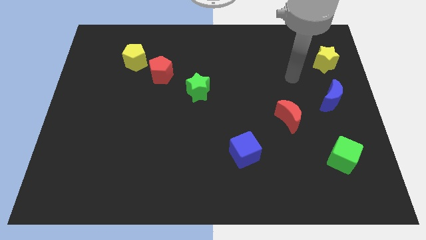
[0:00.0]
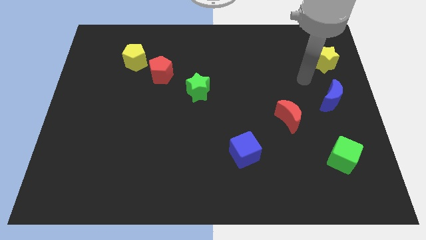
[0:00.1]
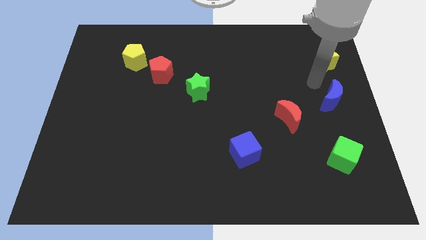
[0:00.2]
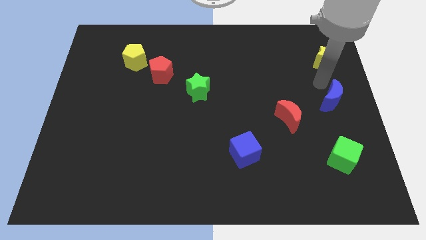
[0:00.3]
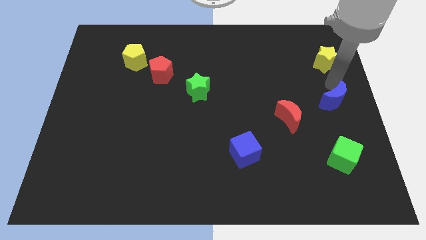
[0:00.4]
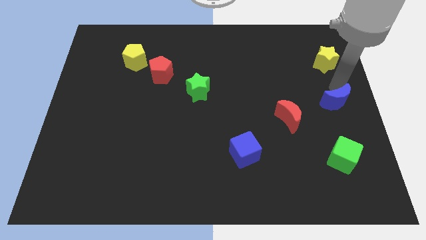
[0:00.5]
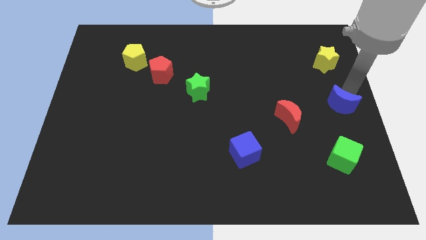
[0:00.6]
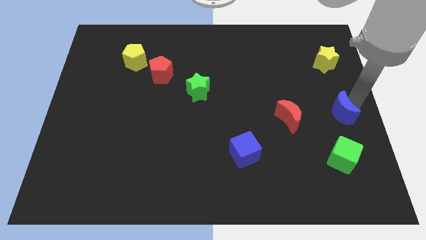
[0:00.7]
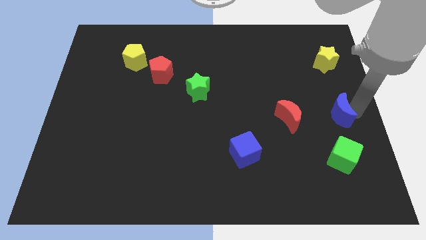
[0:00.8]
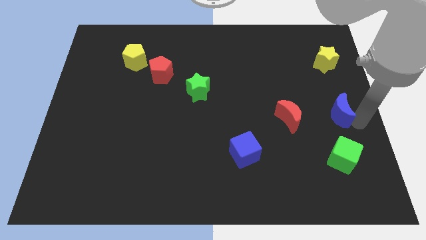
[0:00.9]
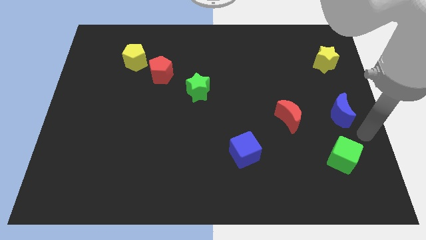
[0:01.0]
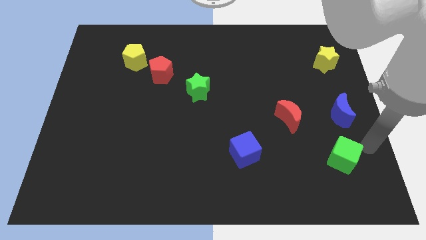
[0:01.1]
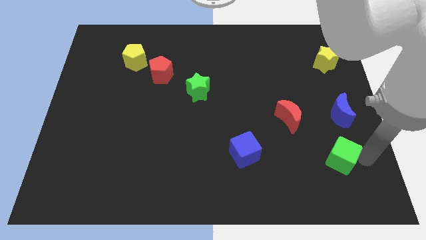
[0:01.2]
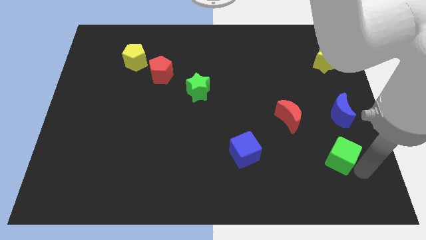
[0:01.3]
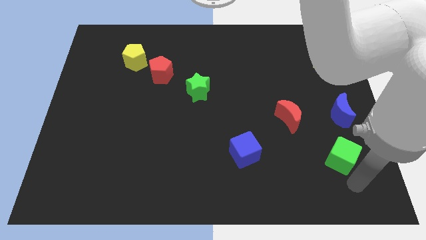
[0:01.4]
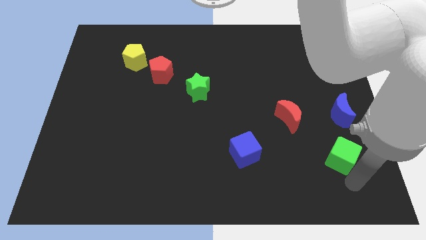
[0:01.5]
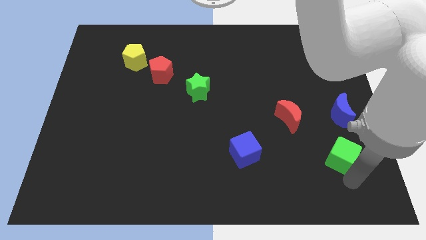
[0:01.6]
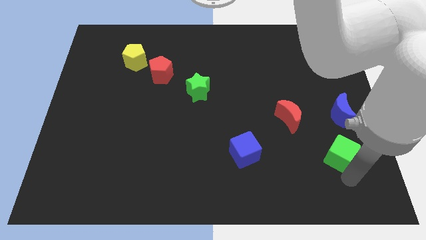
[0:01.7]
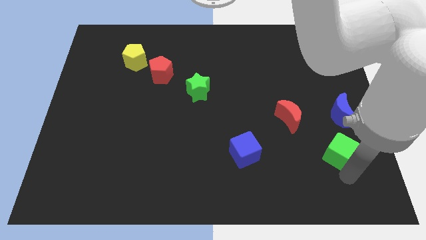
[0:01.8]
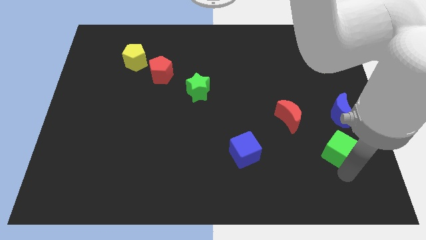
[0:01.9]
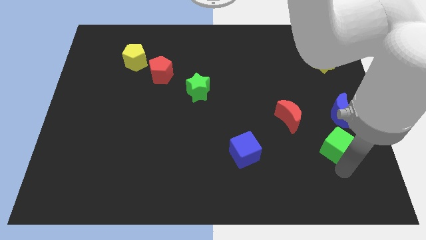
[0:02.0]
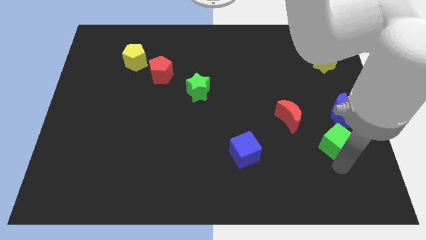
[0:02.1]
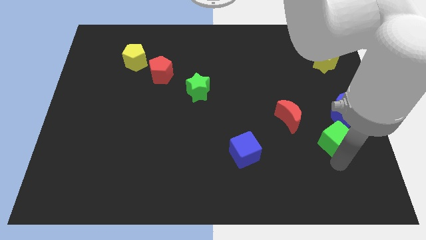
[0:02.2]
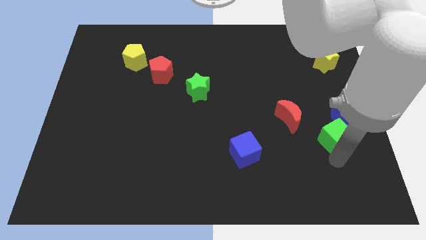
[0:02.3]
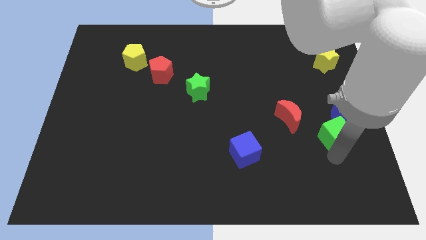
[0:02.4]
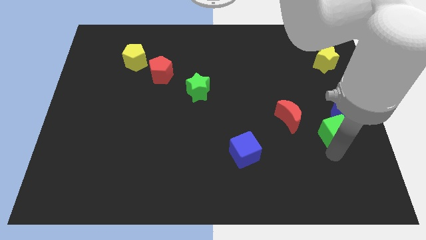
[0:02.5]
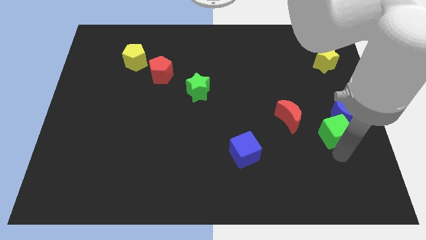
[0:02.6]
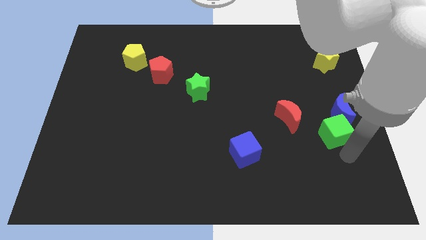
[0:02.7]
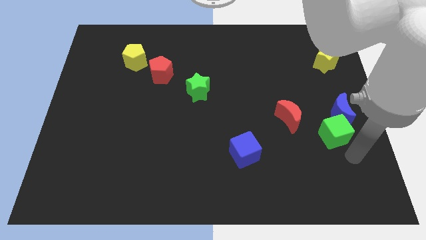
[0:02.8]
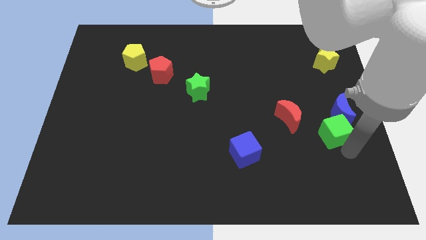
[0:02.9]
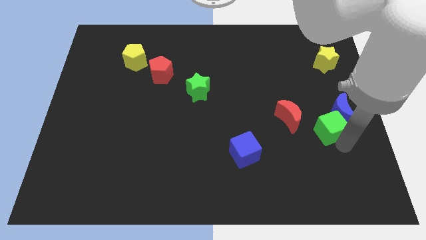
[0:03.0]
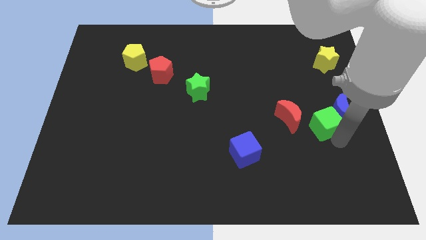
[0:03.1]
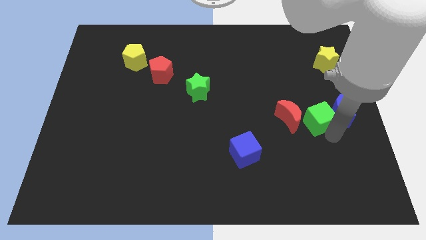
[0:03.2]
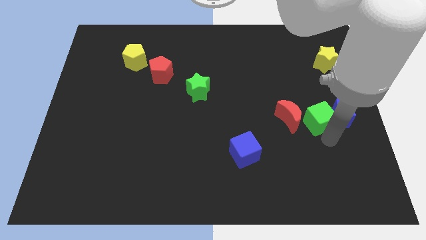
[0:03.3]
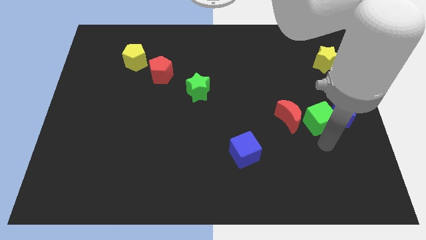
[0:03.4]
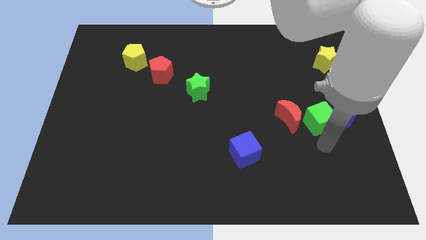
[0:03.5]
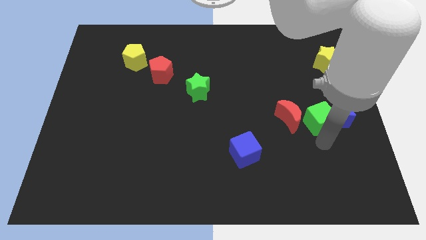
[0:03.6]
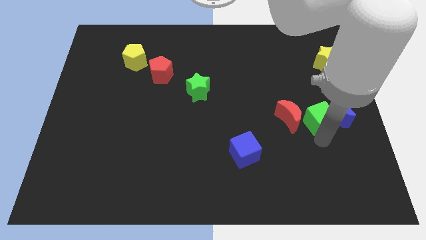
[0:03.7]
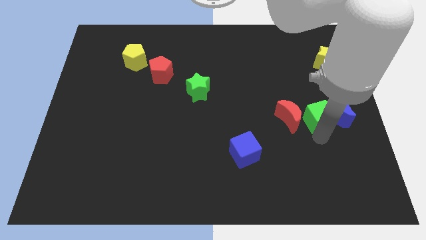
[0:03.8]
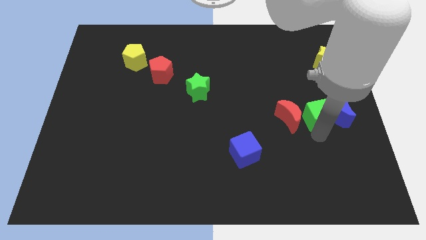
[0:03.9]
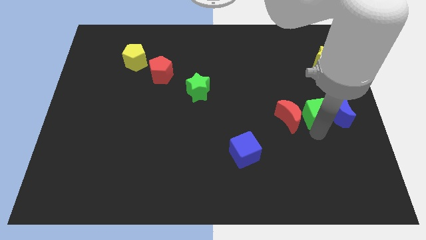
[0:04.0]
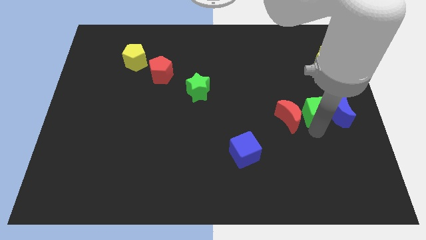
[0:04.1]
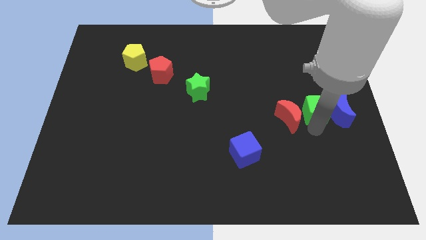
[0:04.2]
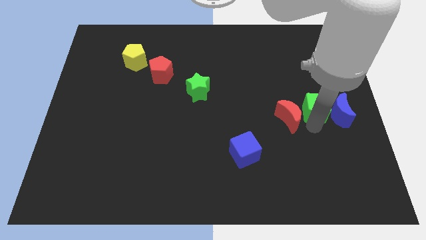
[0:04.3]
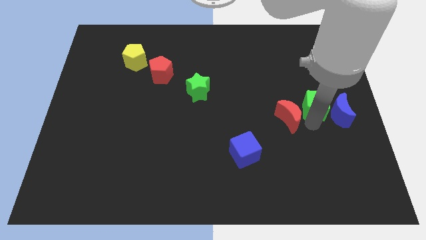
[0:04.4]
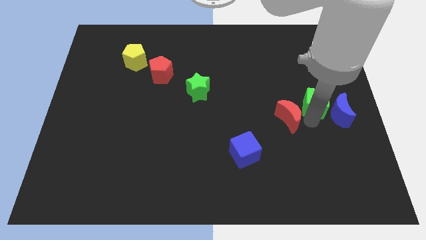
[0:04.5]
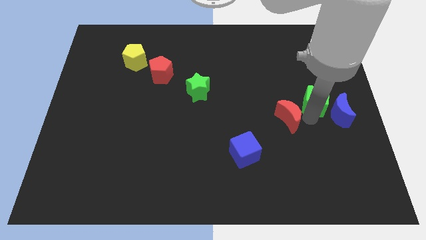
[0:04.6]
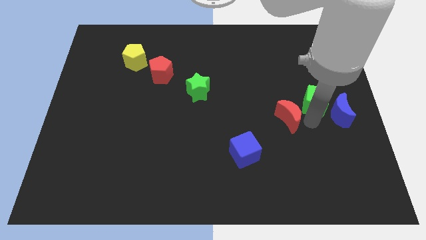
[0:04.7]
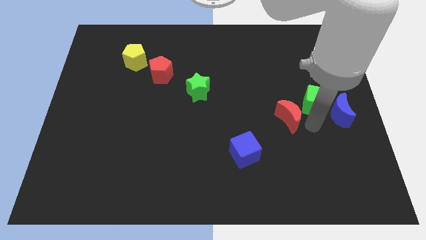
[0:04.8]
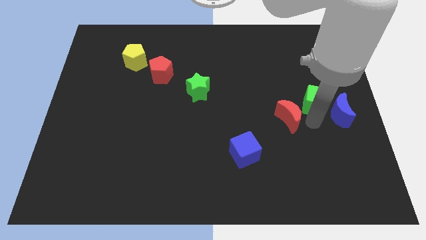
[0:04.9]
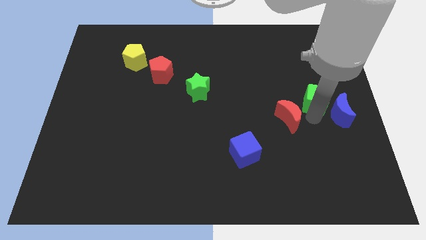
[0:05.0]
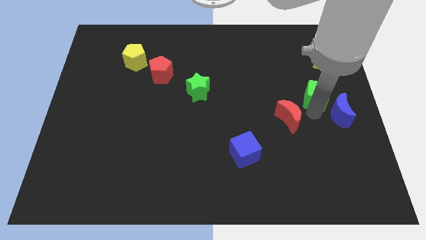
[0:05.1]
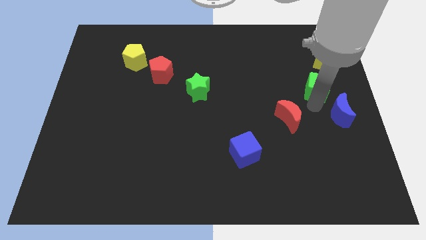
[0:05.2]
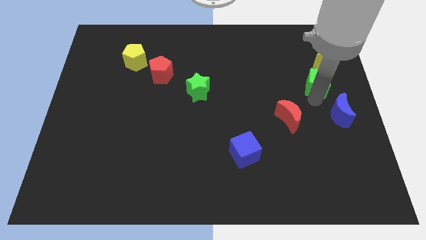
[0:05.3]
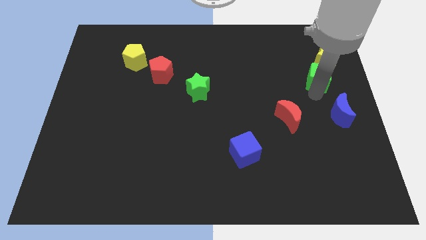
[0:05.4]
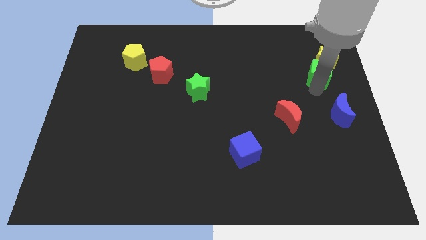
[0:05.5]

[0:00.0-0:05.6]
push the green cube to the yellow star

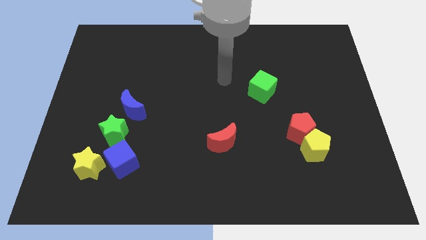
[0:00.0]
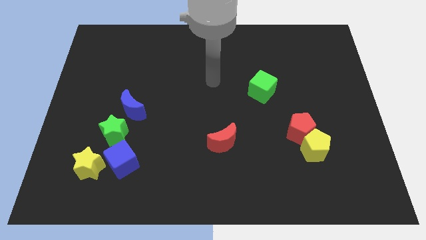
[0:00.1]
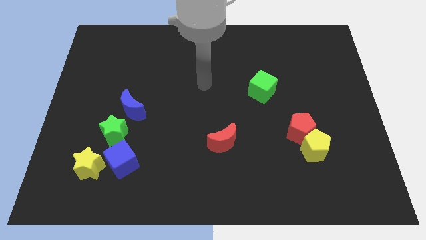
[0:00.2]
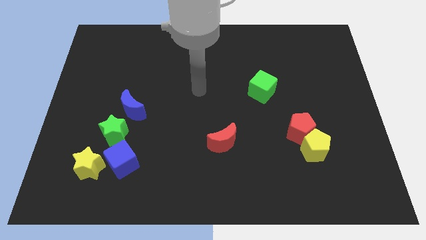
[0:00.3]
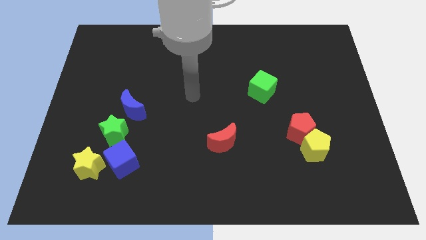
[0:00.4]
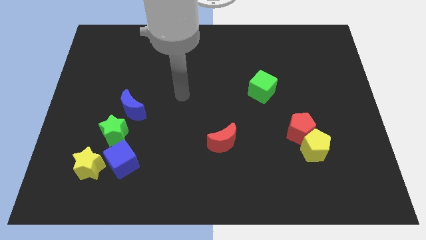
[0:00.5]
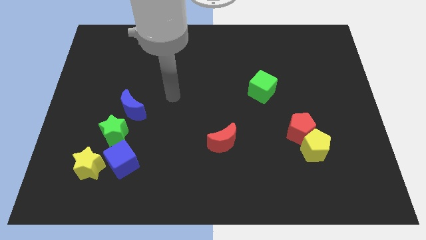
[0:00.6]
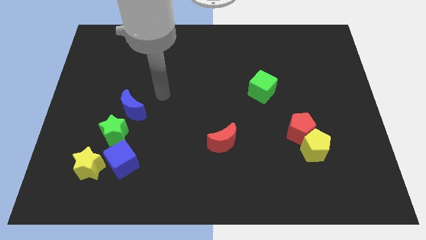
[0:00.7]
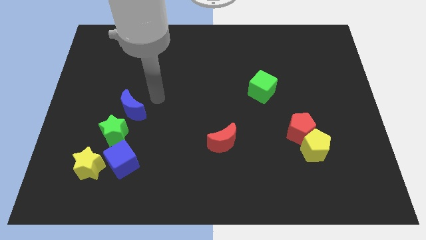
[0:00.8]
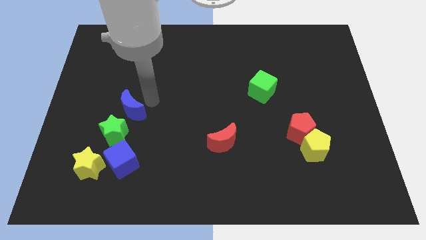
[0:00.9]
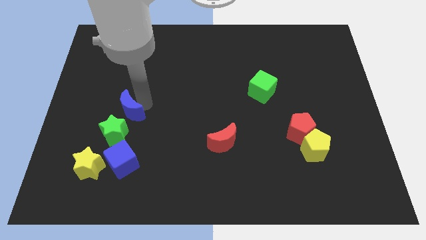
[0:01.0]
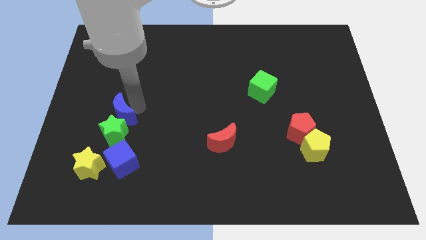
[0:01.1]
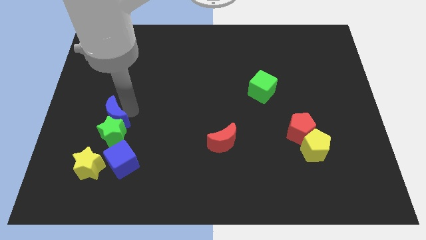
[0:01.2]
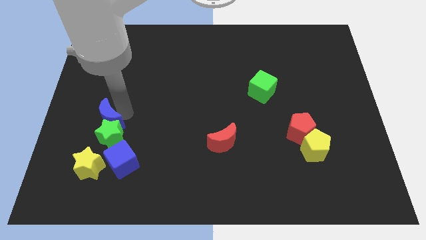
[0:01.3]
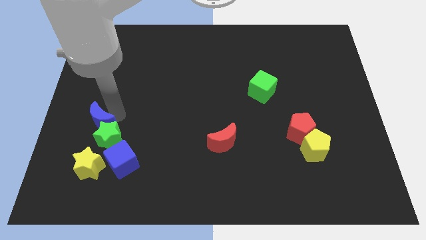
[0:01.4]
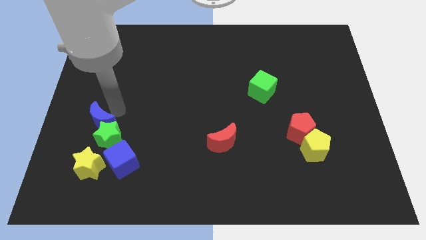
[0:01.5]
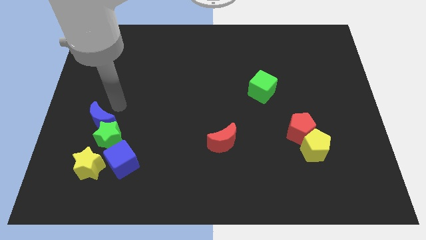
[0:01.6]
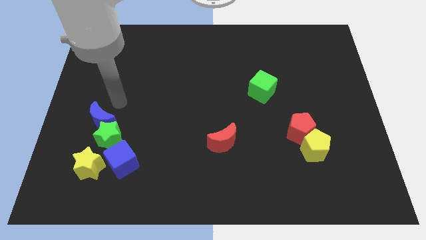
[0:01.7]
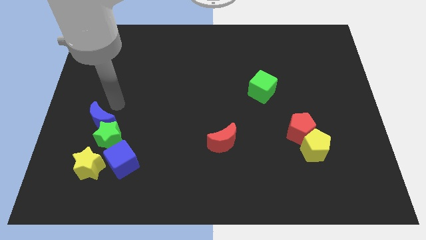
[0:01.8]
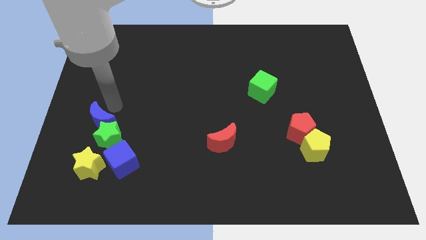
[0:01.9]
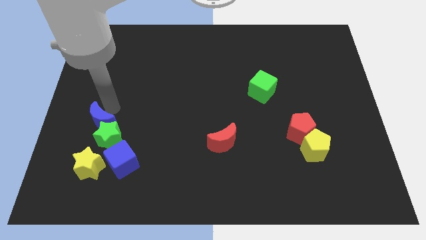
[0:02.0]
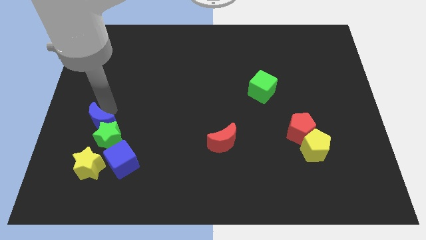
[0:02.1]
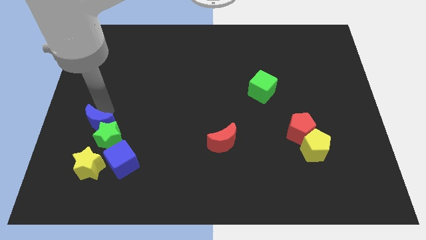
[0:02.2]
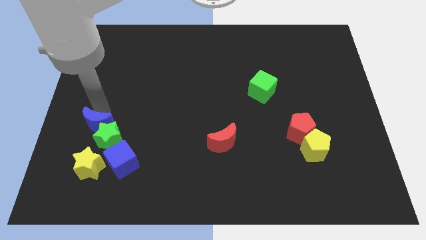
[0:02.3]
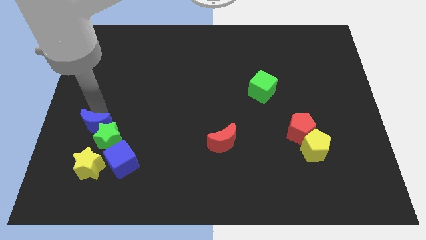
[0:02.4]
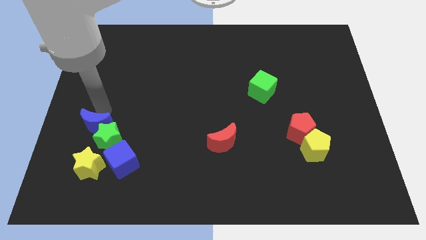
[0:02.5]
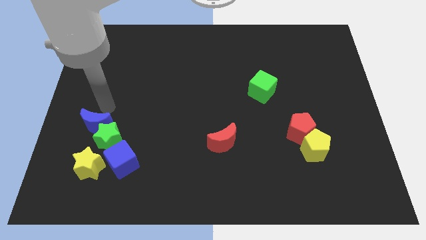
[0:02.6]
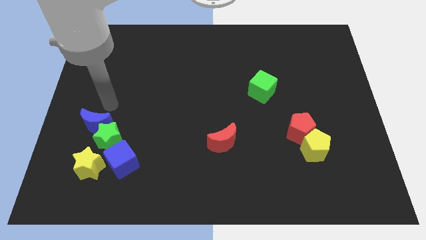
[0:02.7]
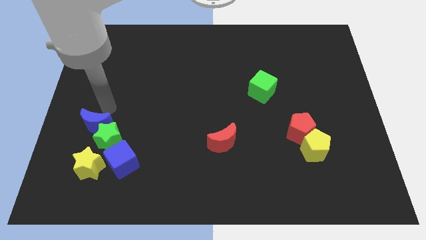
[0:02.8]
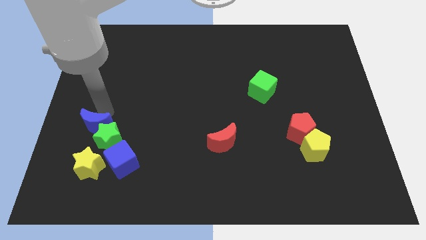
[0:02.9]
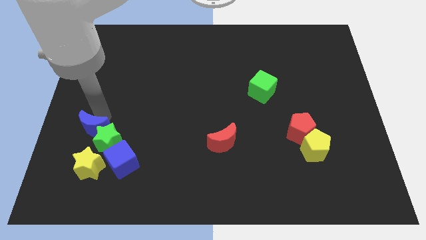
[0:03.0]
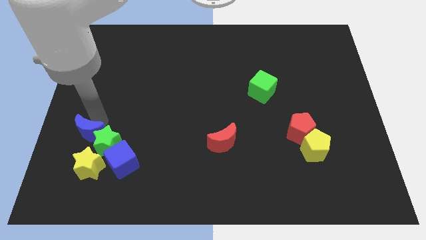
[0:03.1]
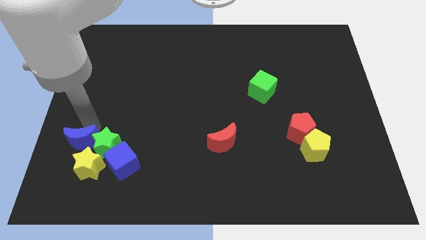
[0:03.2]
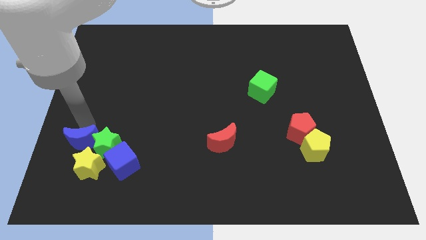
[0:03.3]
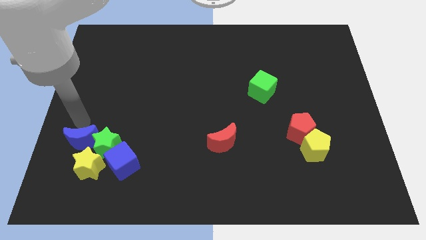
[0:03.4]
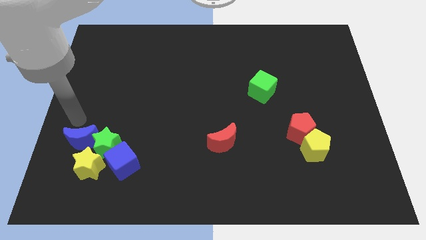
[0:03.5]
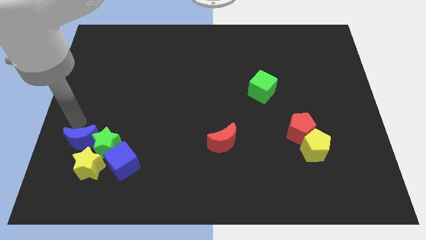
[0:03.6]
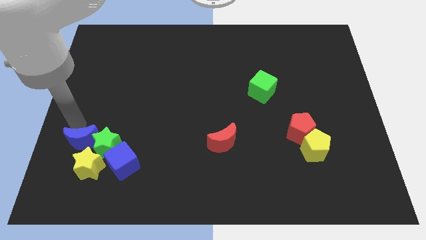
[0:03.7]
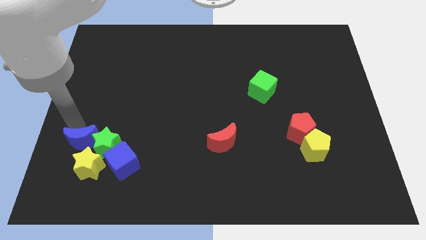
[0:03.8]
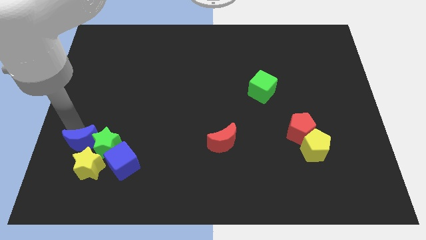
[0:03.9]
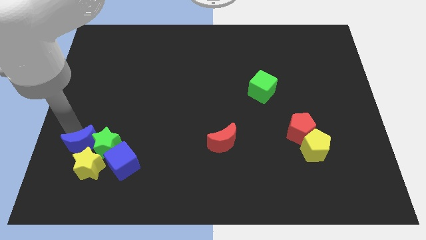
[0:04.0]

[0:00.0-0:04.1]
slide the blue moon towards the yellow star
